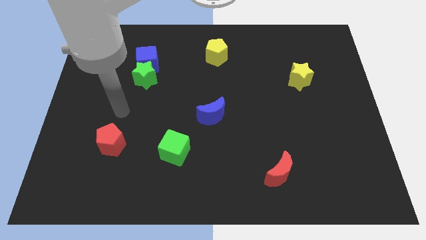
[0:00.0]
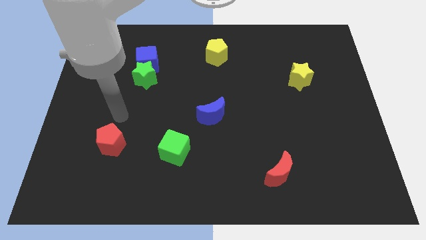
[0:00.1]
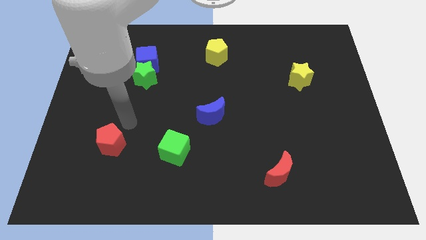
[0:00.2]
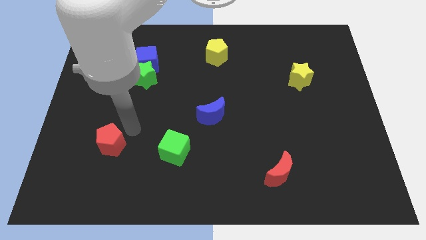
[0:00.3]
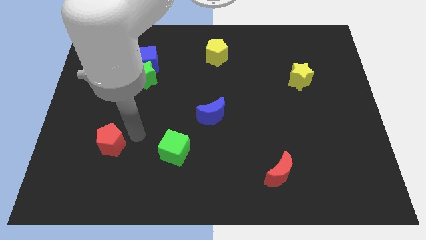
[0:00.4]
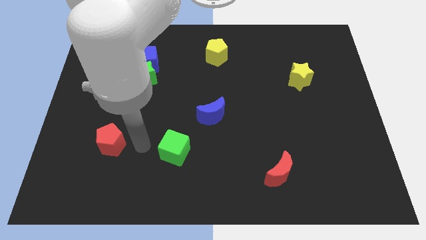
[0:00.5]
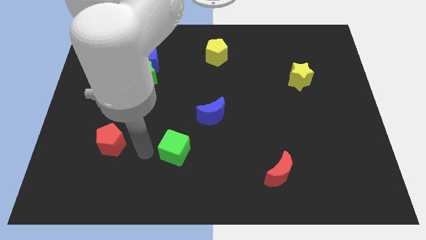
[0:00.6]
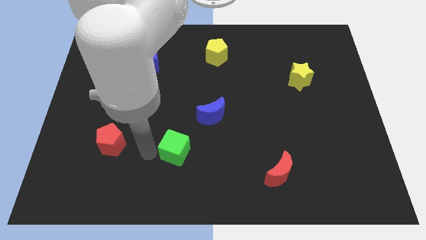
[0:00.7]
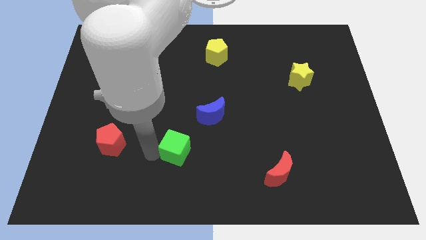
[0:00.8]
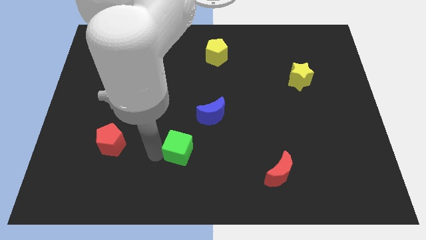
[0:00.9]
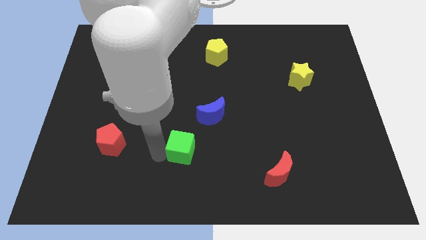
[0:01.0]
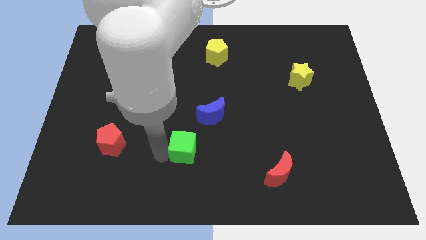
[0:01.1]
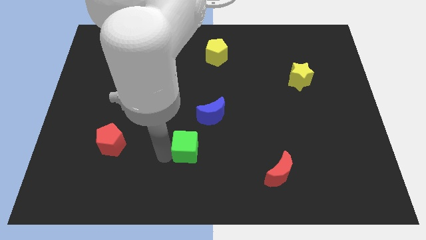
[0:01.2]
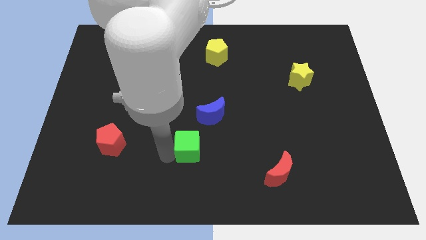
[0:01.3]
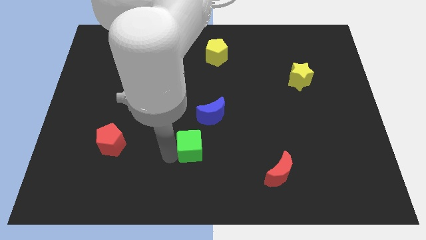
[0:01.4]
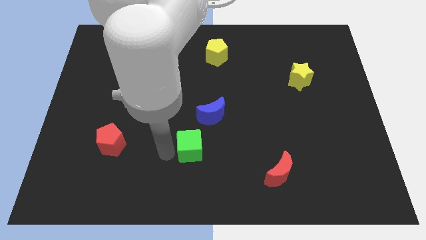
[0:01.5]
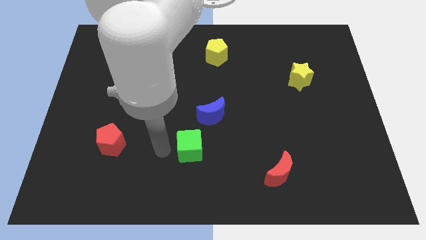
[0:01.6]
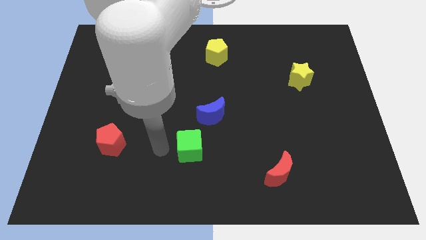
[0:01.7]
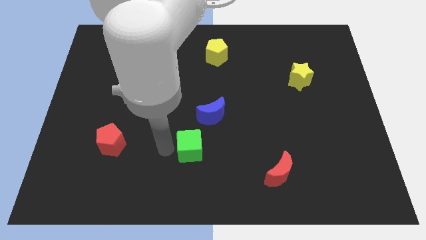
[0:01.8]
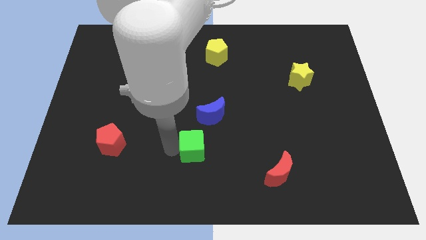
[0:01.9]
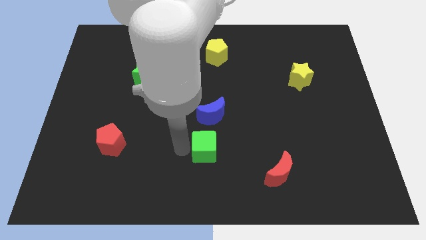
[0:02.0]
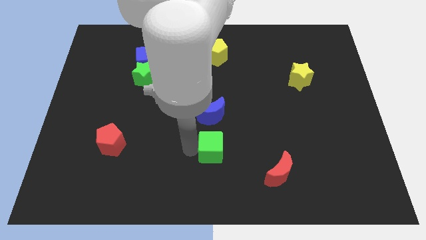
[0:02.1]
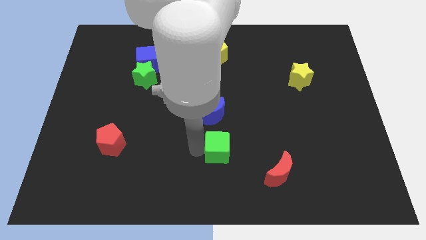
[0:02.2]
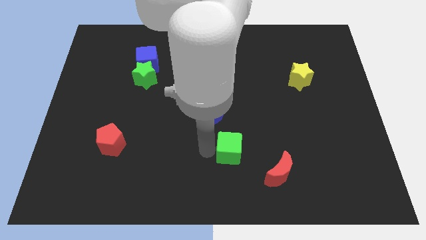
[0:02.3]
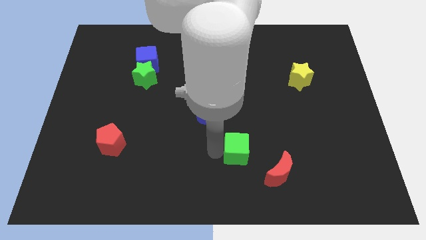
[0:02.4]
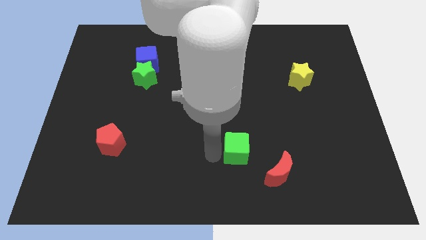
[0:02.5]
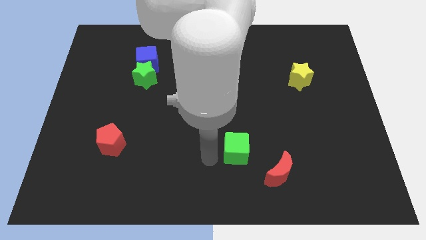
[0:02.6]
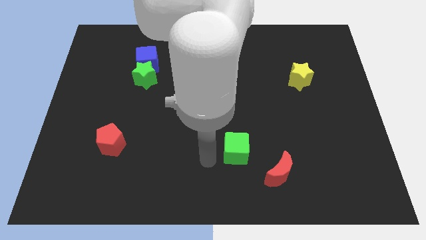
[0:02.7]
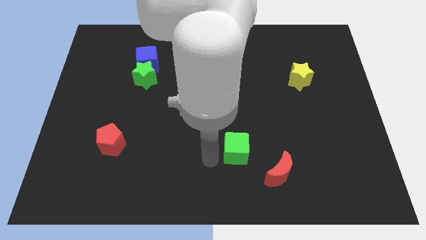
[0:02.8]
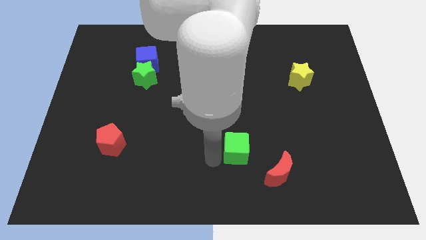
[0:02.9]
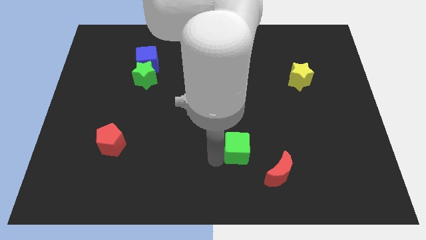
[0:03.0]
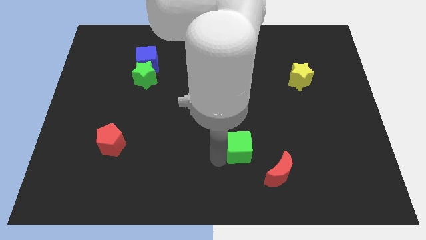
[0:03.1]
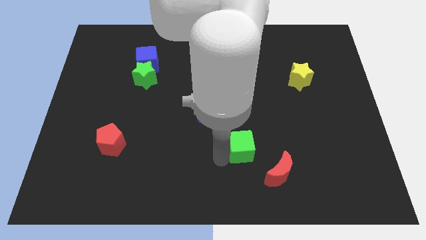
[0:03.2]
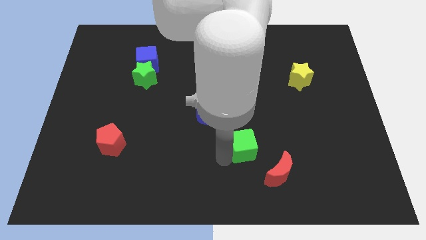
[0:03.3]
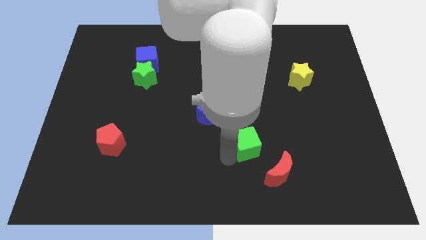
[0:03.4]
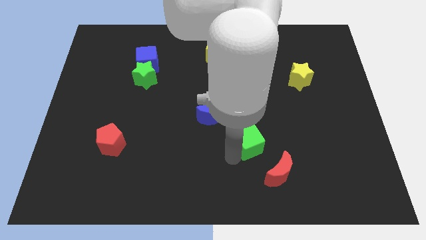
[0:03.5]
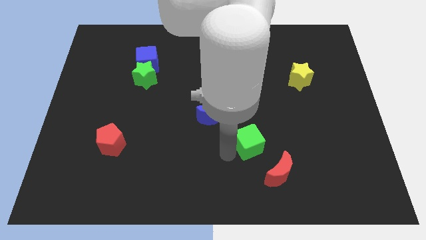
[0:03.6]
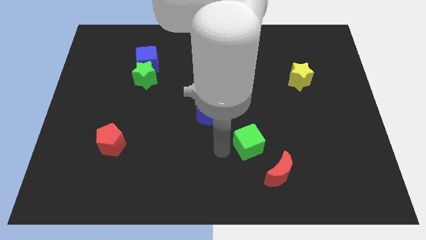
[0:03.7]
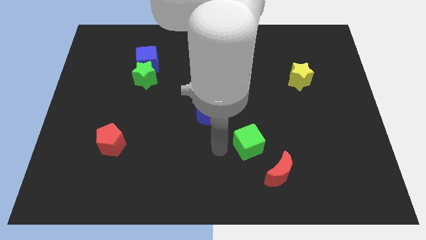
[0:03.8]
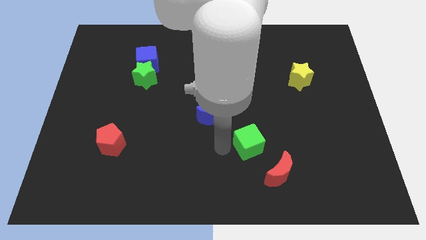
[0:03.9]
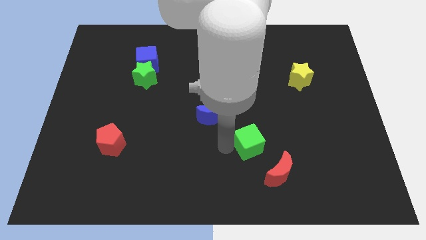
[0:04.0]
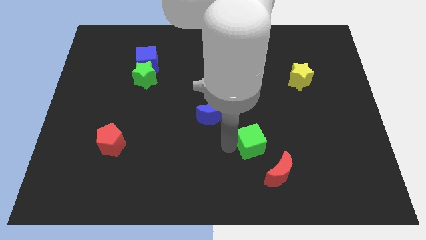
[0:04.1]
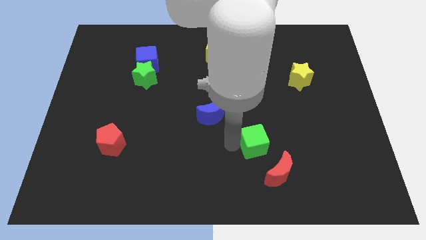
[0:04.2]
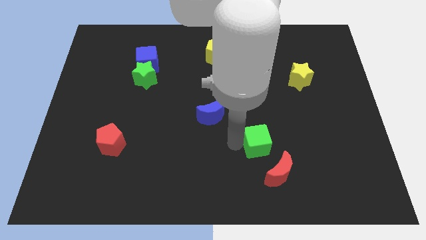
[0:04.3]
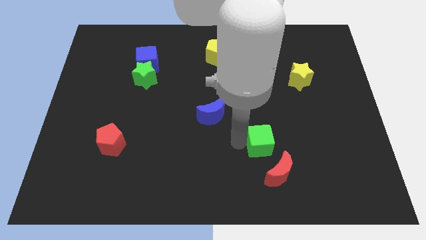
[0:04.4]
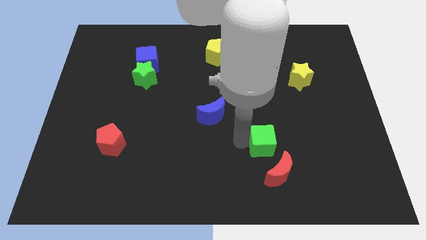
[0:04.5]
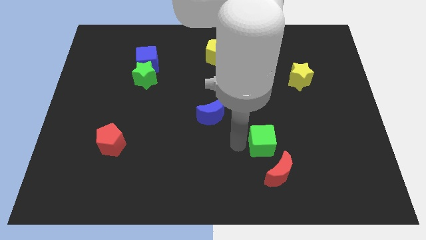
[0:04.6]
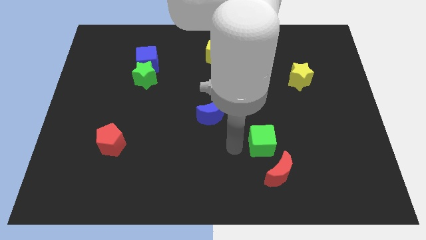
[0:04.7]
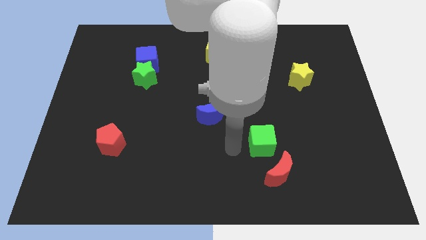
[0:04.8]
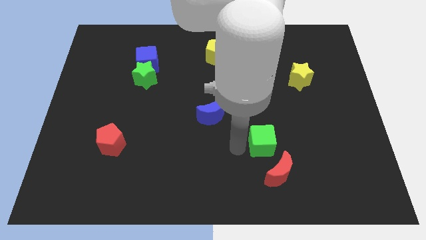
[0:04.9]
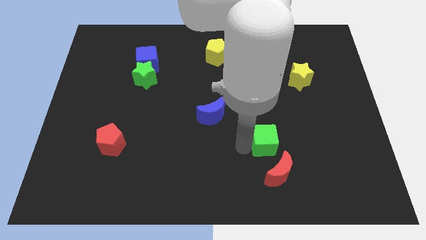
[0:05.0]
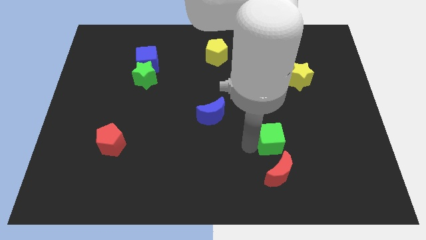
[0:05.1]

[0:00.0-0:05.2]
push the green cube right

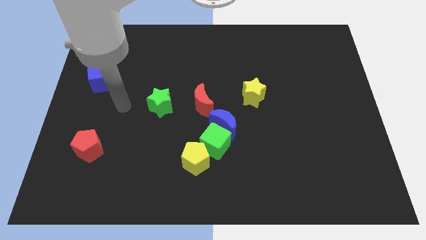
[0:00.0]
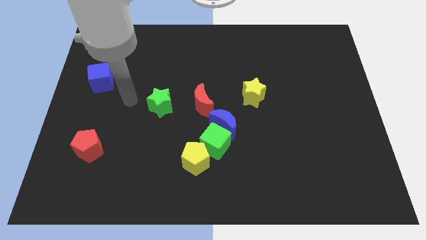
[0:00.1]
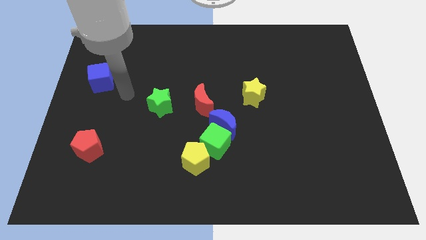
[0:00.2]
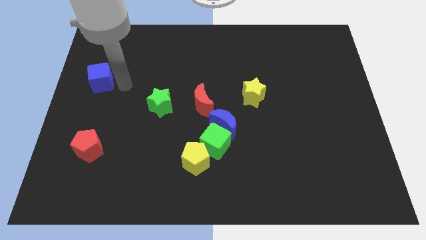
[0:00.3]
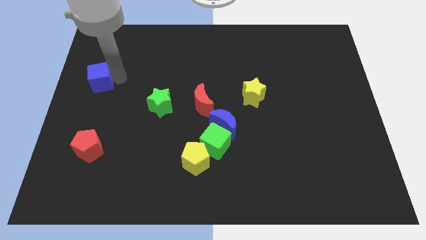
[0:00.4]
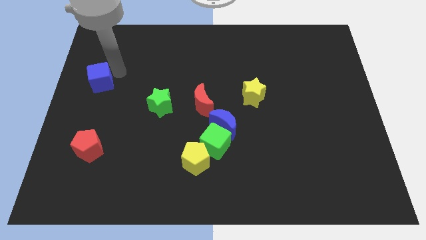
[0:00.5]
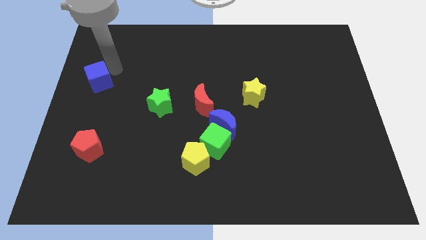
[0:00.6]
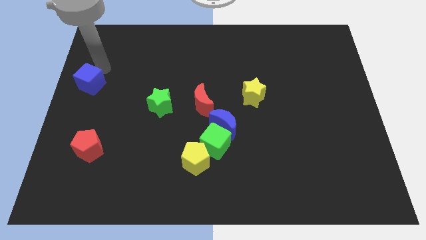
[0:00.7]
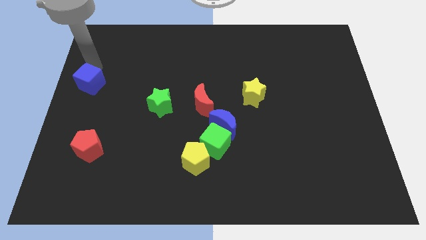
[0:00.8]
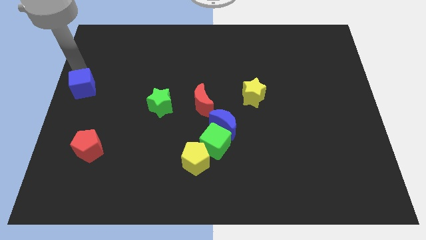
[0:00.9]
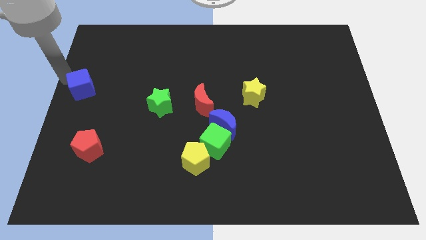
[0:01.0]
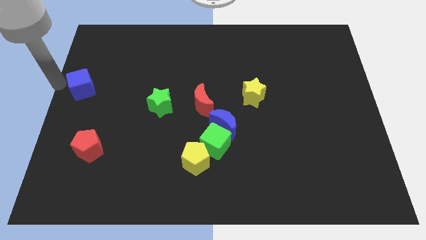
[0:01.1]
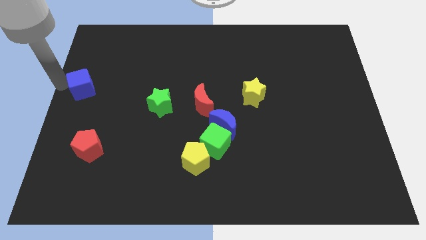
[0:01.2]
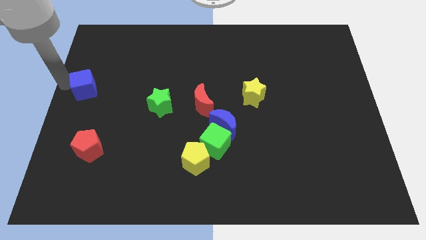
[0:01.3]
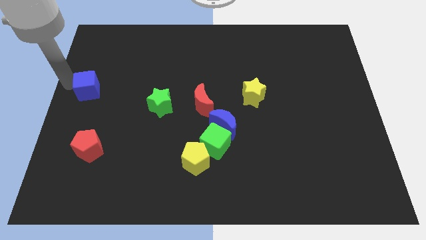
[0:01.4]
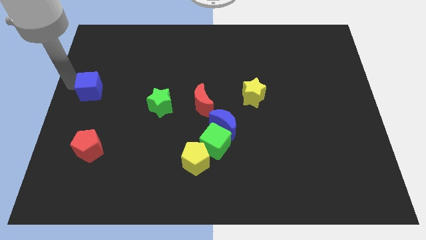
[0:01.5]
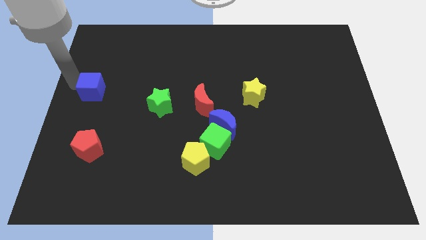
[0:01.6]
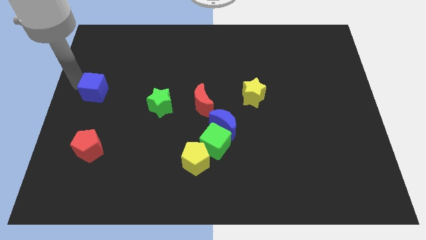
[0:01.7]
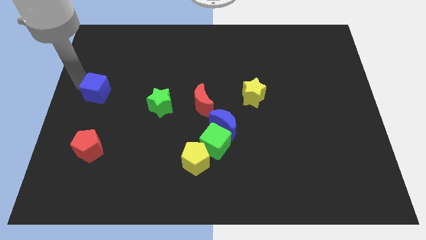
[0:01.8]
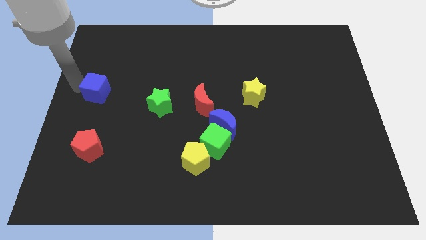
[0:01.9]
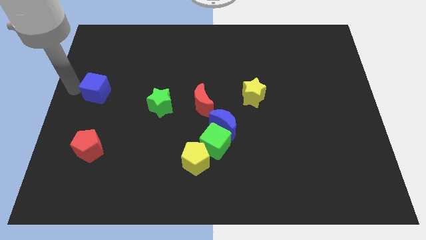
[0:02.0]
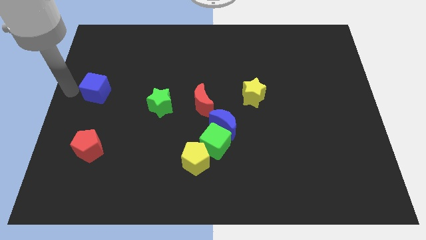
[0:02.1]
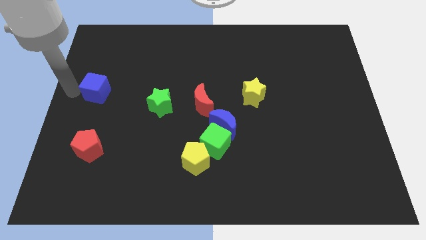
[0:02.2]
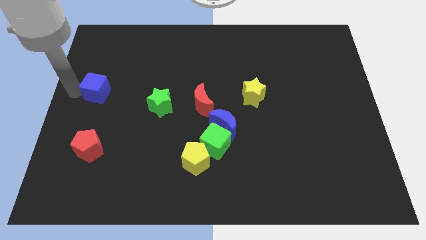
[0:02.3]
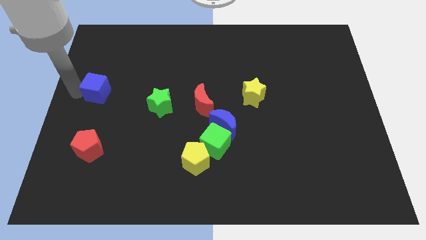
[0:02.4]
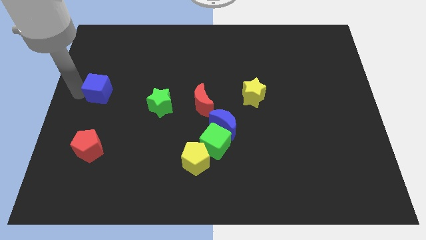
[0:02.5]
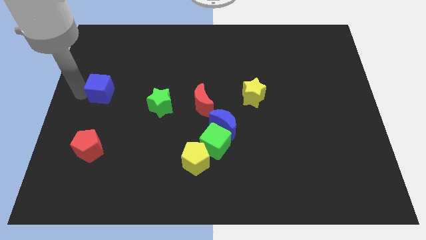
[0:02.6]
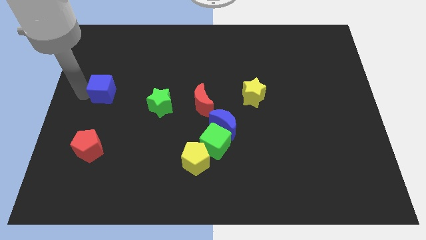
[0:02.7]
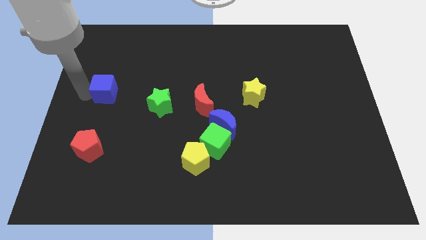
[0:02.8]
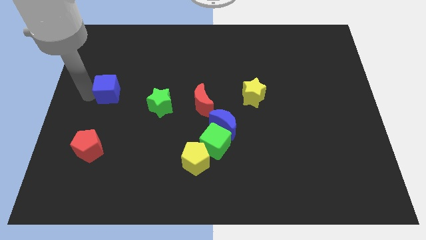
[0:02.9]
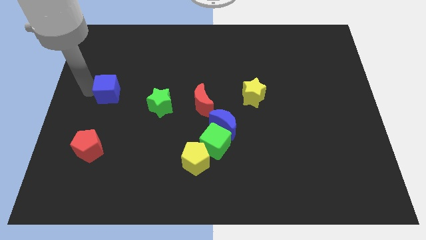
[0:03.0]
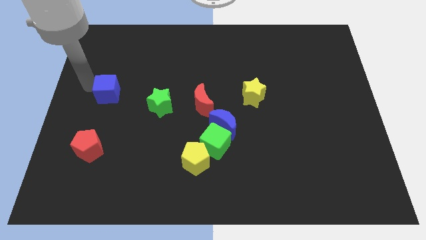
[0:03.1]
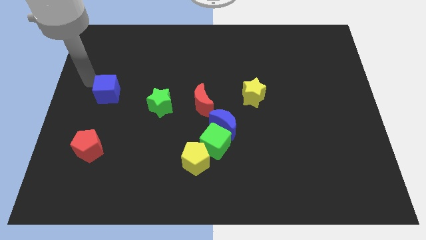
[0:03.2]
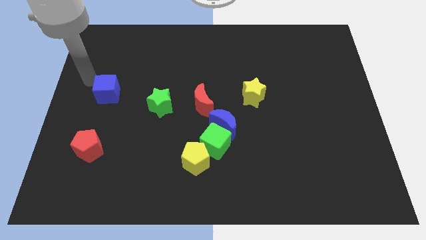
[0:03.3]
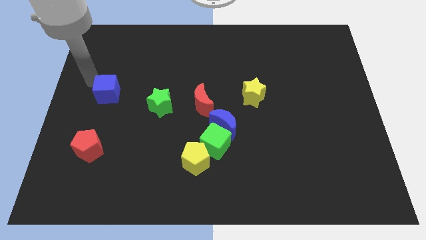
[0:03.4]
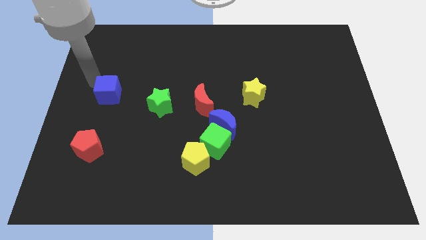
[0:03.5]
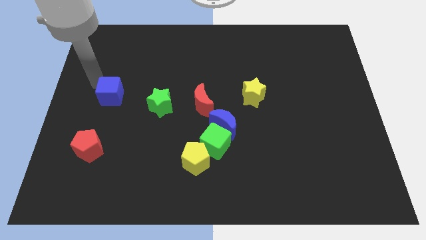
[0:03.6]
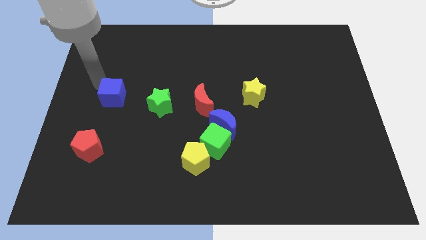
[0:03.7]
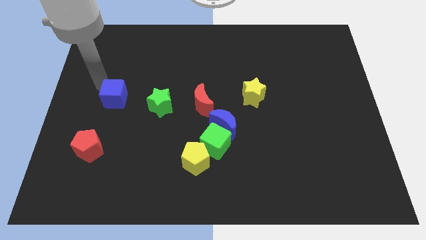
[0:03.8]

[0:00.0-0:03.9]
slide the blue cube diagonally downwards and to the right slightly
